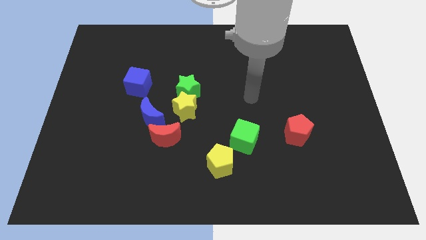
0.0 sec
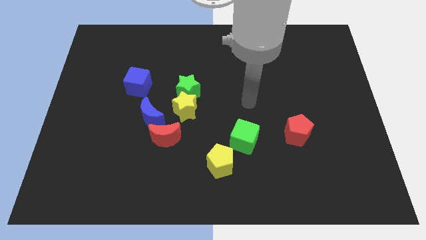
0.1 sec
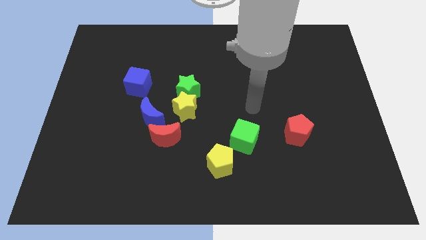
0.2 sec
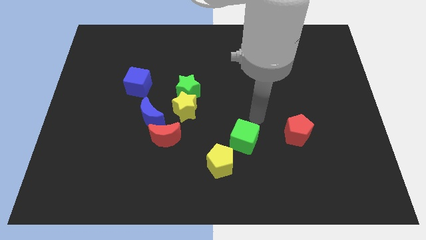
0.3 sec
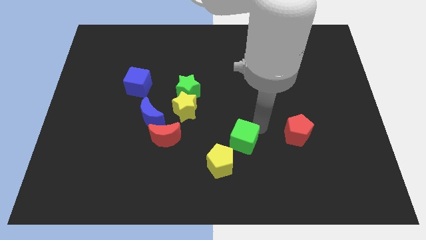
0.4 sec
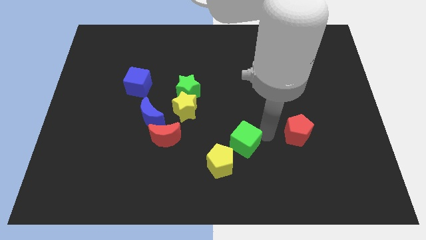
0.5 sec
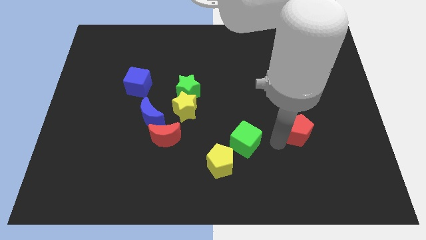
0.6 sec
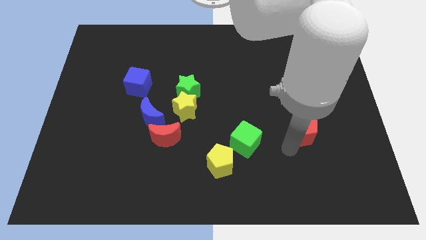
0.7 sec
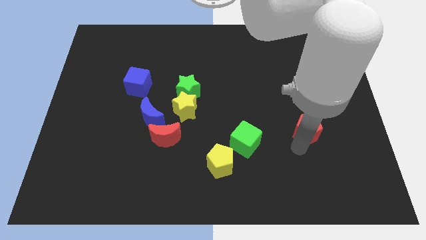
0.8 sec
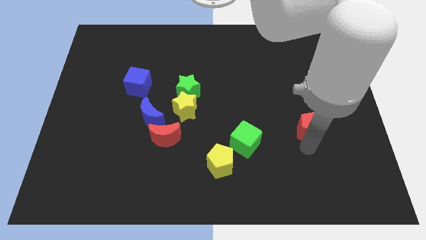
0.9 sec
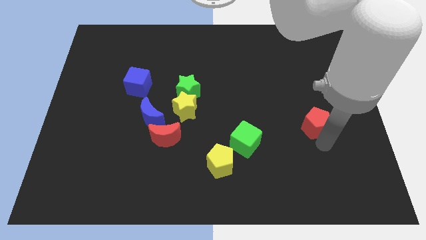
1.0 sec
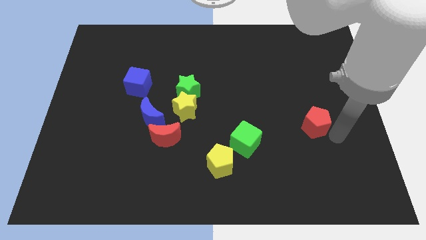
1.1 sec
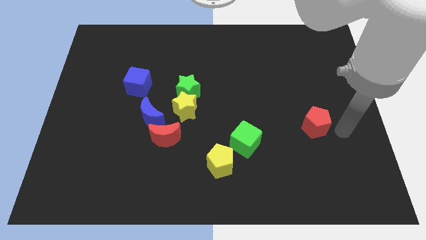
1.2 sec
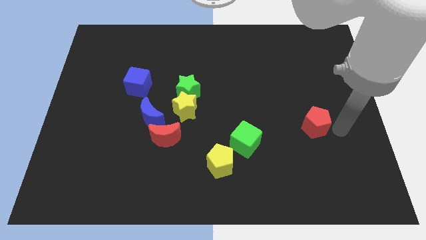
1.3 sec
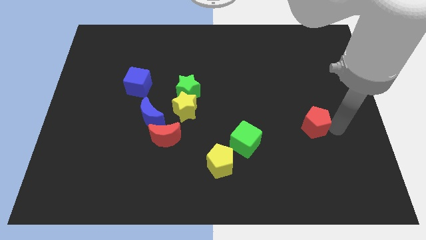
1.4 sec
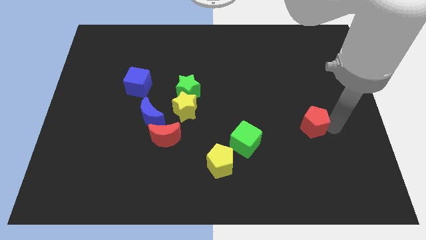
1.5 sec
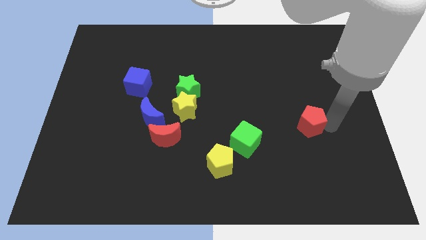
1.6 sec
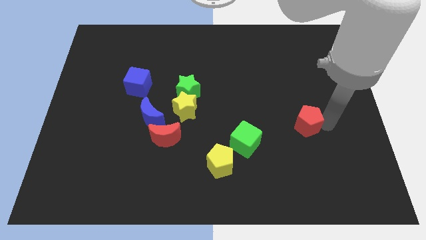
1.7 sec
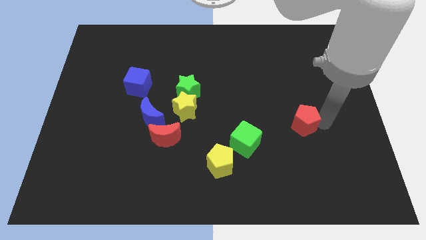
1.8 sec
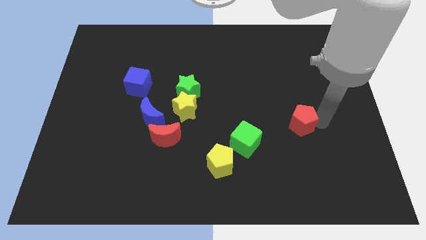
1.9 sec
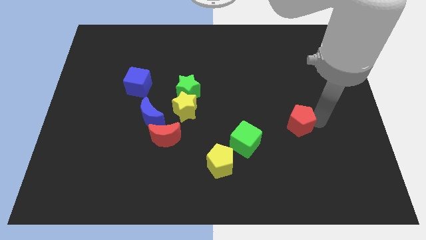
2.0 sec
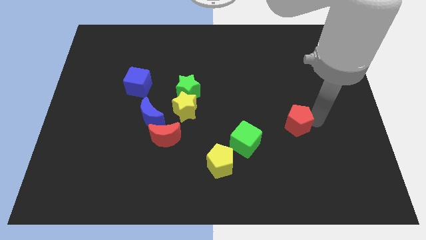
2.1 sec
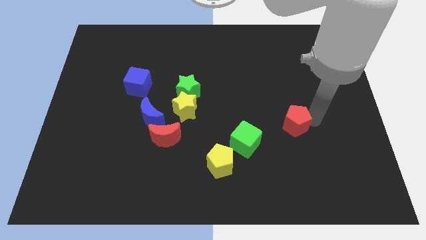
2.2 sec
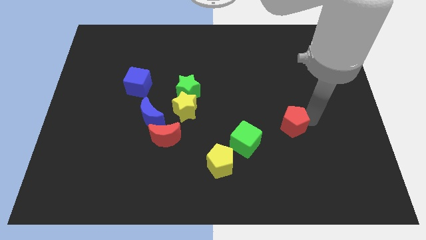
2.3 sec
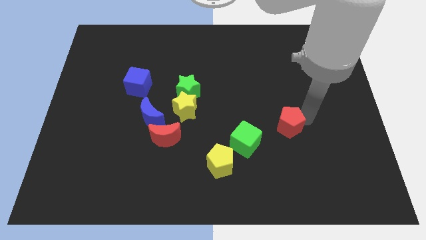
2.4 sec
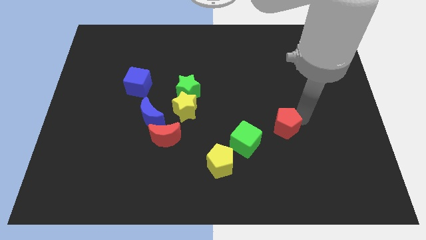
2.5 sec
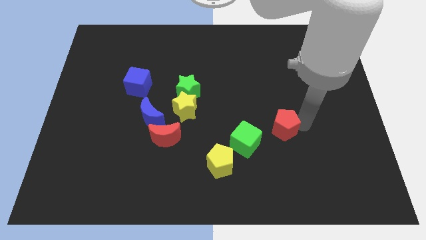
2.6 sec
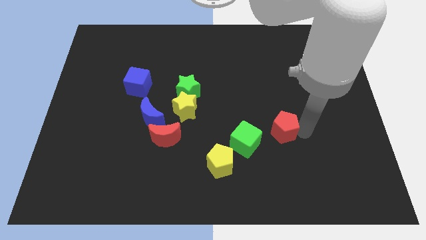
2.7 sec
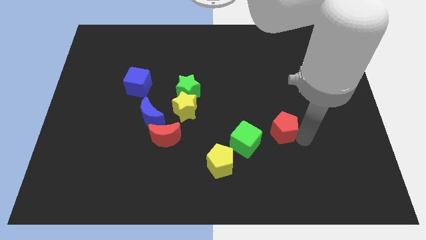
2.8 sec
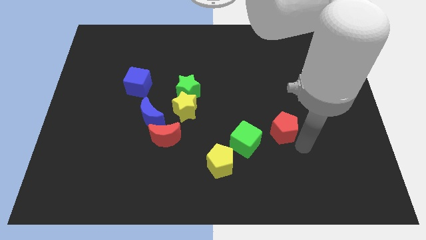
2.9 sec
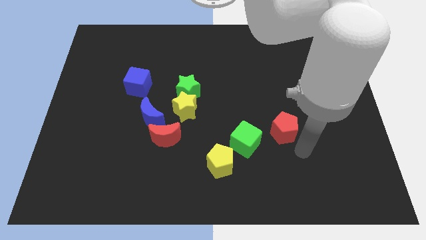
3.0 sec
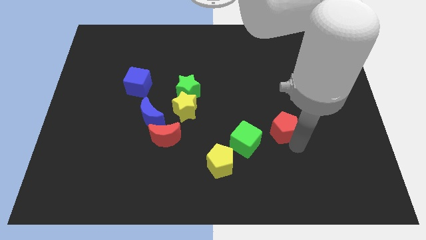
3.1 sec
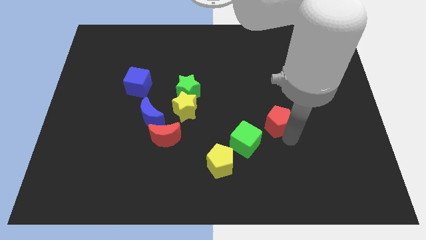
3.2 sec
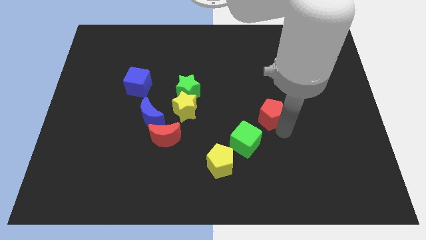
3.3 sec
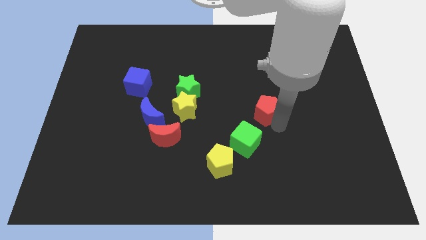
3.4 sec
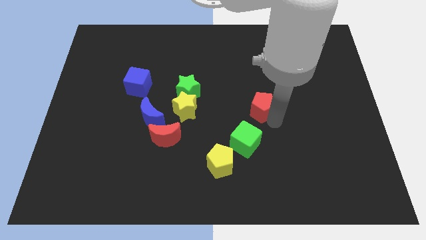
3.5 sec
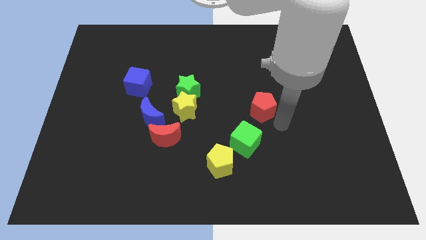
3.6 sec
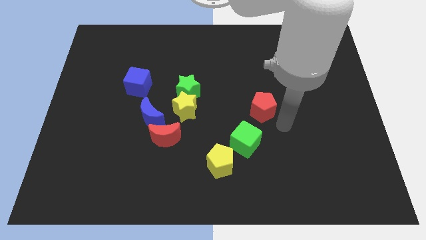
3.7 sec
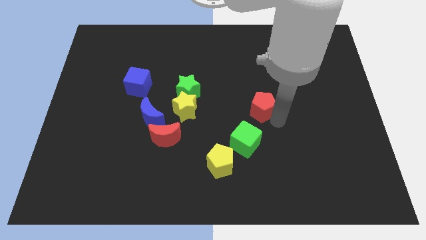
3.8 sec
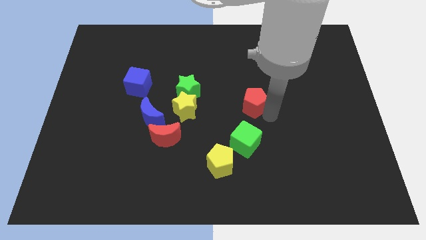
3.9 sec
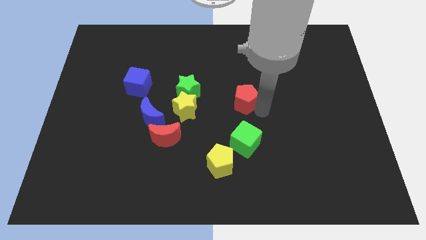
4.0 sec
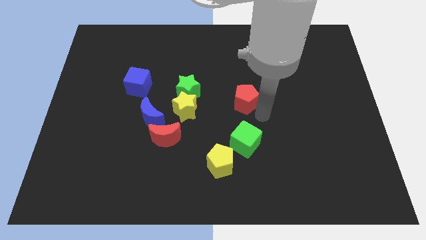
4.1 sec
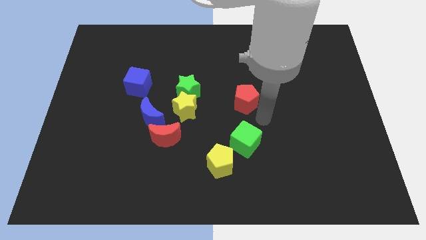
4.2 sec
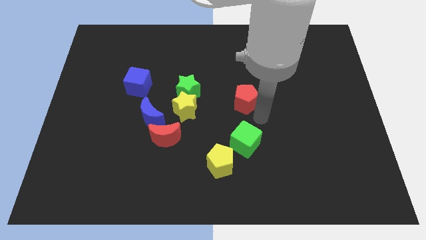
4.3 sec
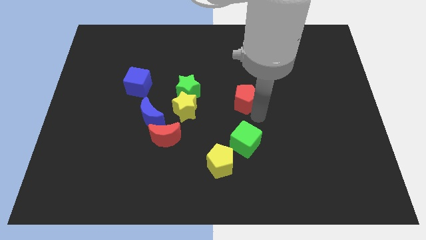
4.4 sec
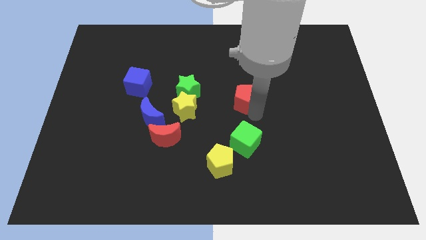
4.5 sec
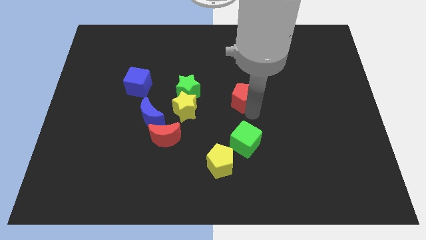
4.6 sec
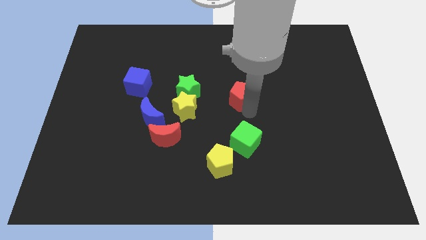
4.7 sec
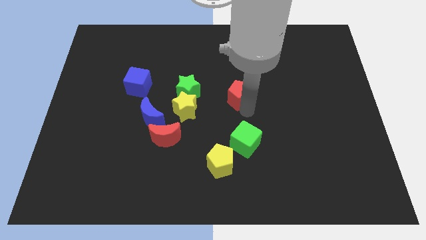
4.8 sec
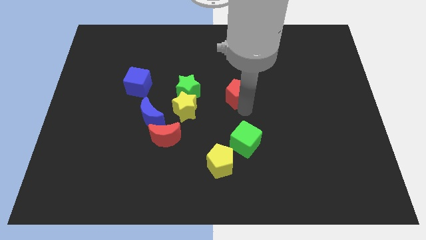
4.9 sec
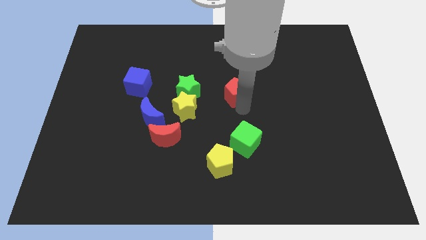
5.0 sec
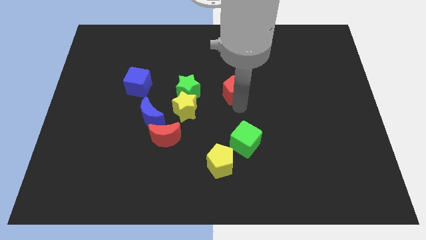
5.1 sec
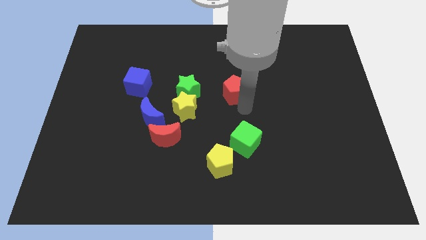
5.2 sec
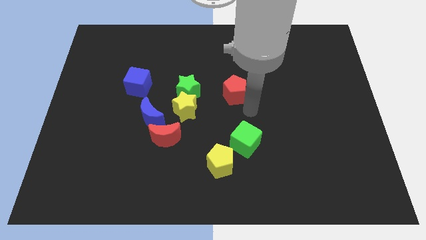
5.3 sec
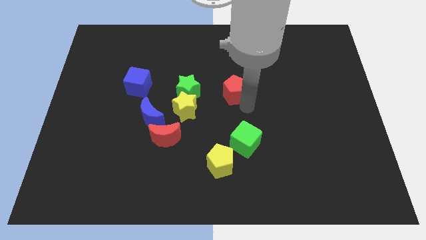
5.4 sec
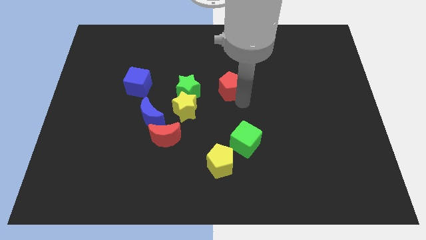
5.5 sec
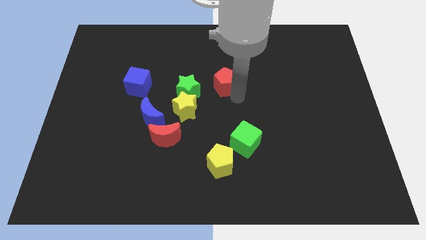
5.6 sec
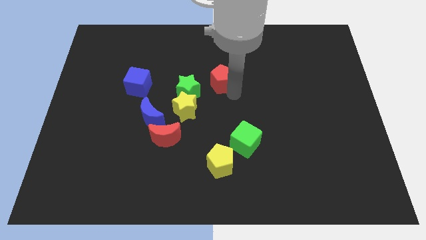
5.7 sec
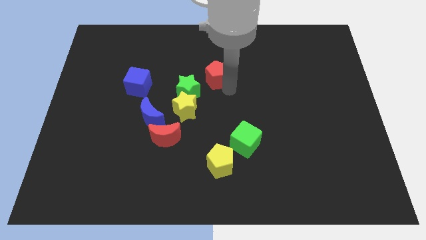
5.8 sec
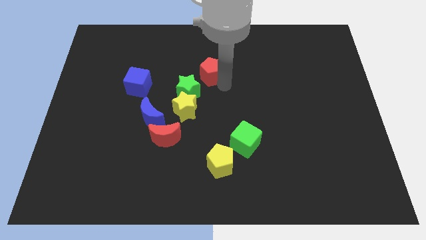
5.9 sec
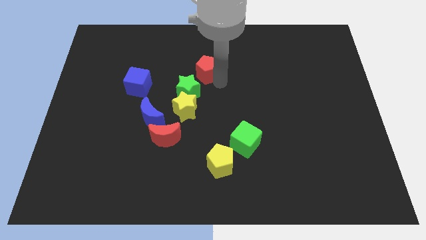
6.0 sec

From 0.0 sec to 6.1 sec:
put the red pentagon above the green star

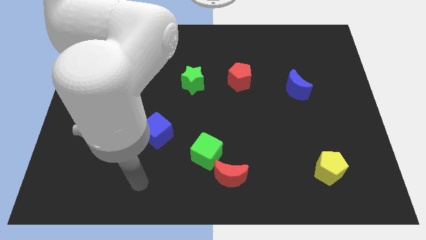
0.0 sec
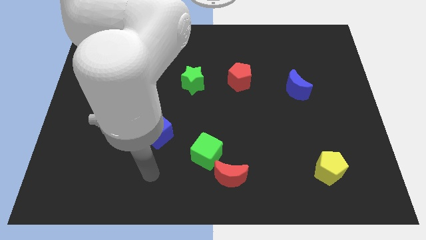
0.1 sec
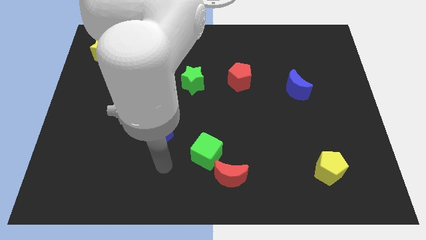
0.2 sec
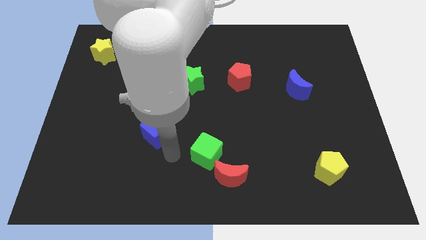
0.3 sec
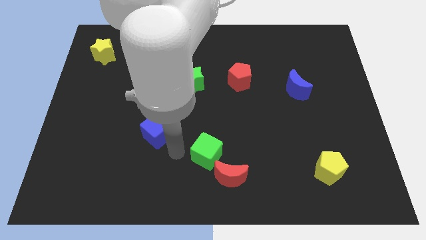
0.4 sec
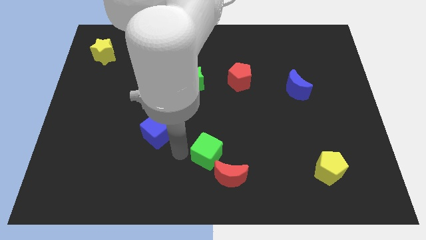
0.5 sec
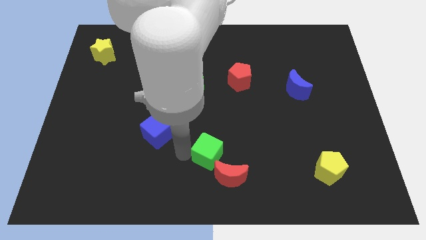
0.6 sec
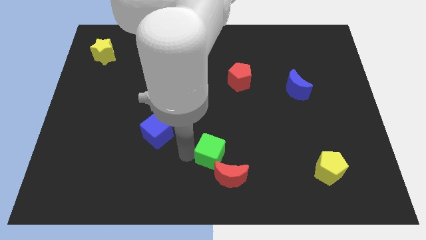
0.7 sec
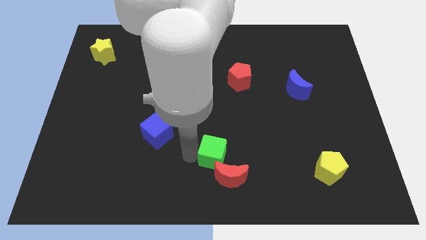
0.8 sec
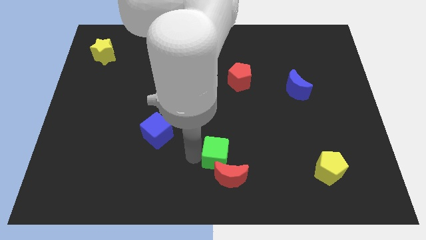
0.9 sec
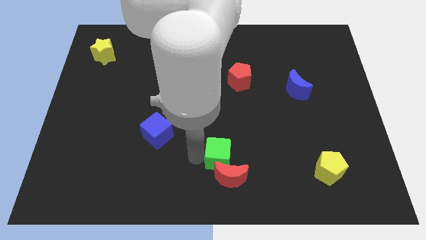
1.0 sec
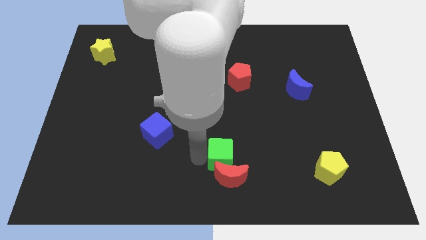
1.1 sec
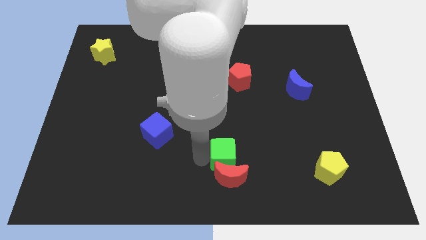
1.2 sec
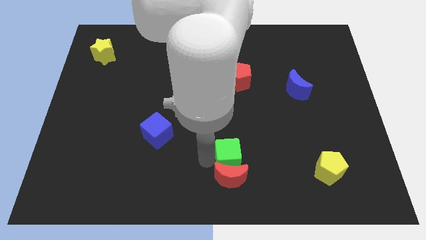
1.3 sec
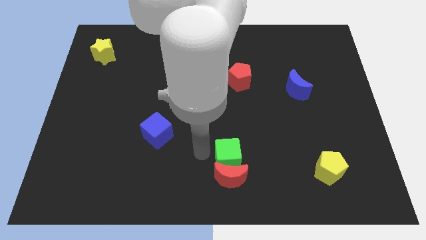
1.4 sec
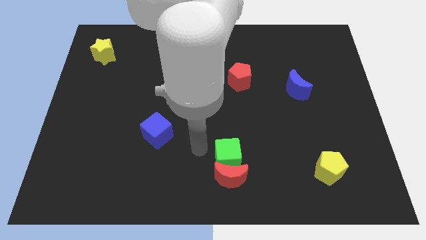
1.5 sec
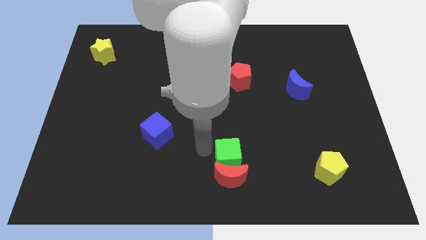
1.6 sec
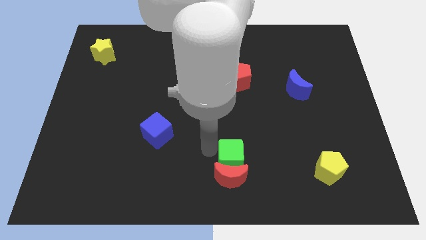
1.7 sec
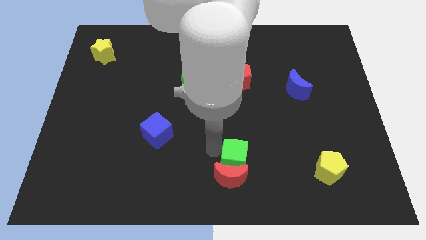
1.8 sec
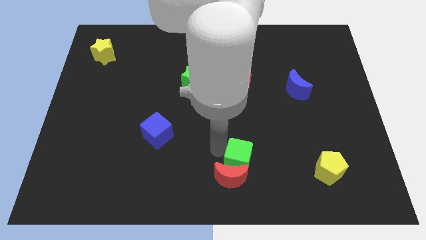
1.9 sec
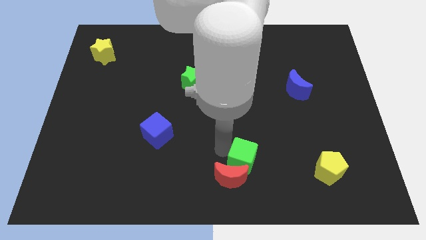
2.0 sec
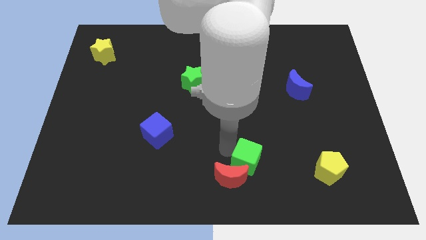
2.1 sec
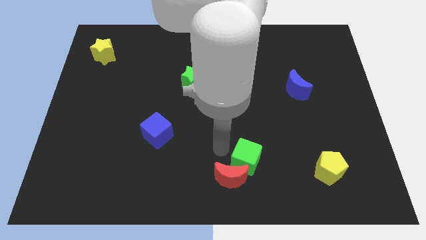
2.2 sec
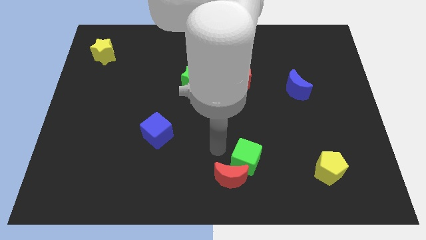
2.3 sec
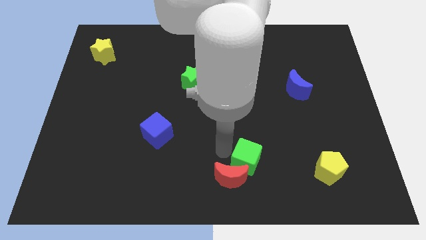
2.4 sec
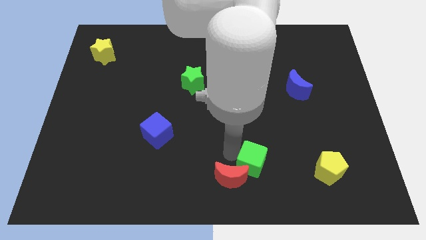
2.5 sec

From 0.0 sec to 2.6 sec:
move the green cube to the left of the yellow pentagon
